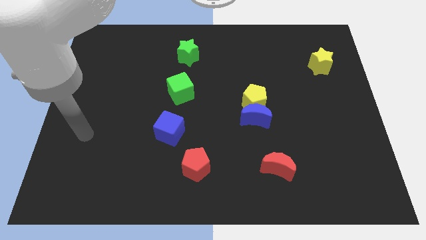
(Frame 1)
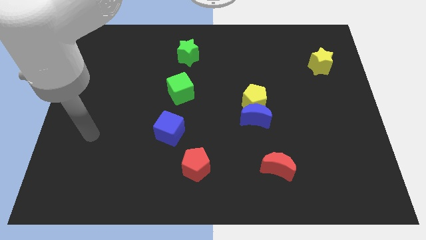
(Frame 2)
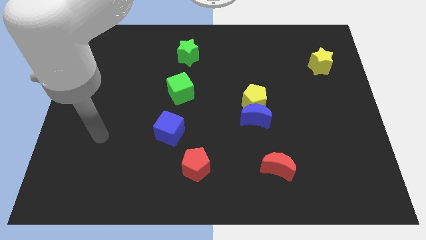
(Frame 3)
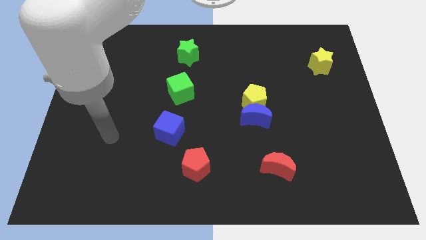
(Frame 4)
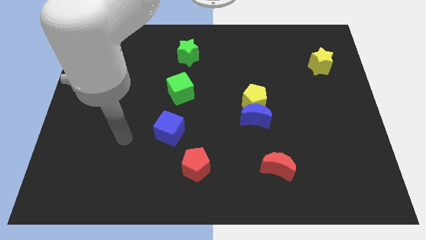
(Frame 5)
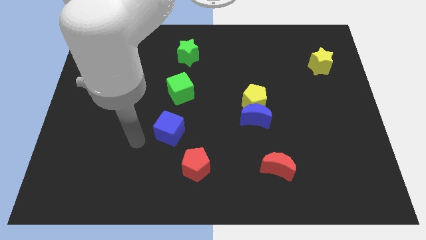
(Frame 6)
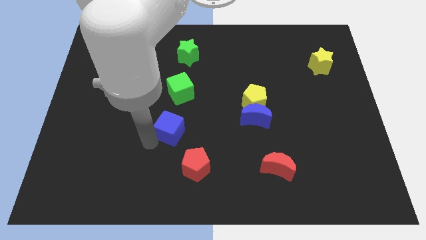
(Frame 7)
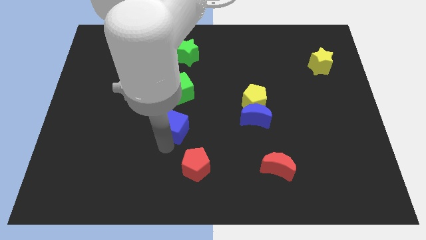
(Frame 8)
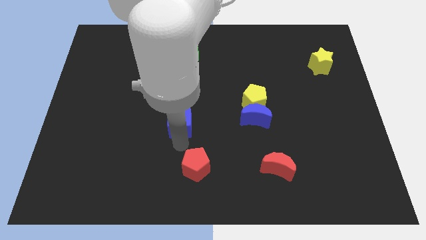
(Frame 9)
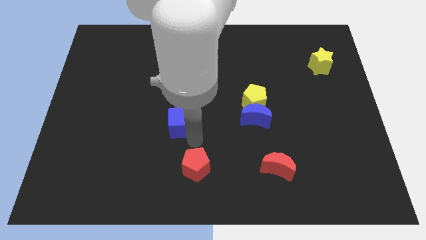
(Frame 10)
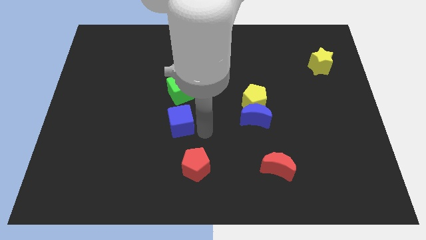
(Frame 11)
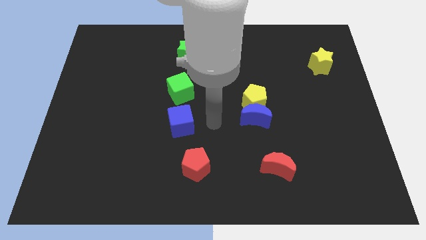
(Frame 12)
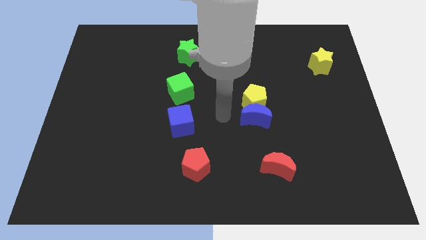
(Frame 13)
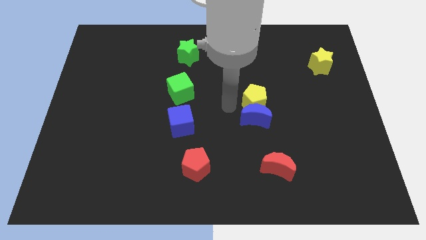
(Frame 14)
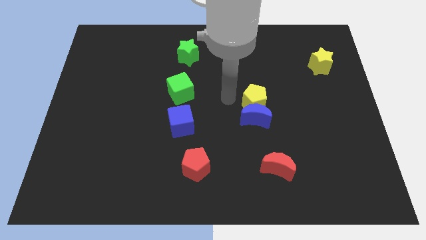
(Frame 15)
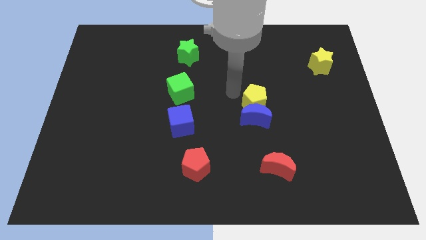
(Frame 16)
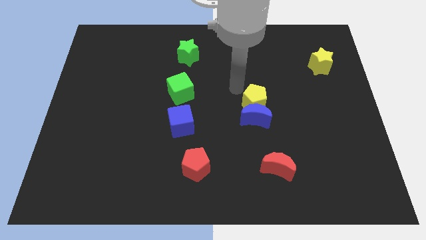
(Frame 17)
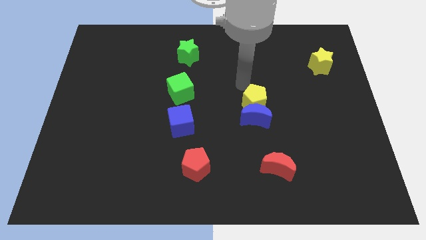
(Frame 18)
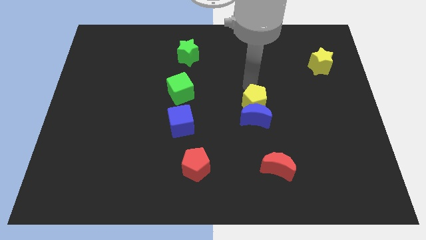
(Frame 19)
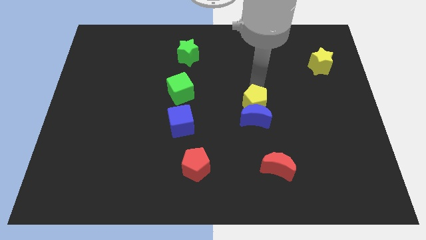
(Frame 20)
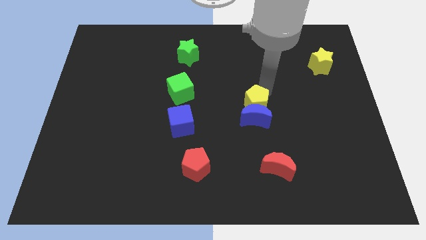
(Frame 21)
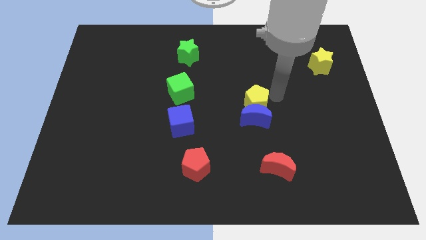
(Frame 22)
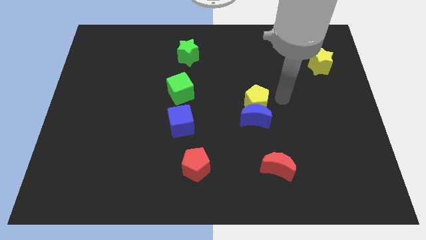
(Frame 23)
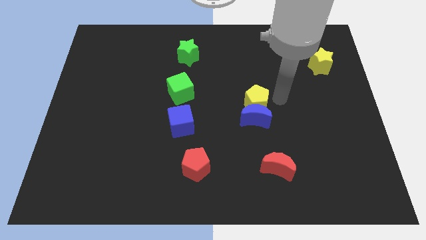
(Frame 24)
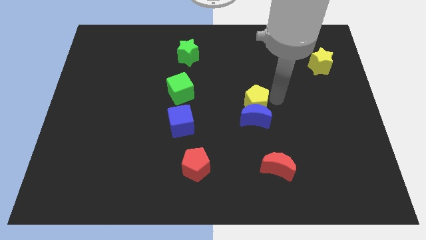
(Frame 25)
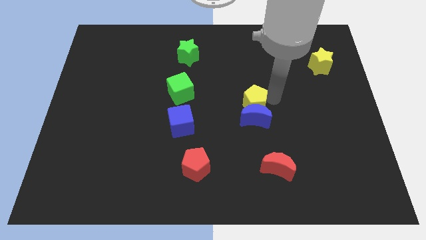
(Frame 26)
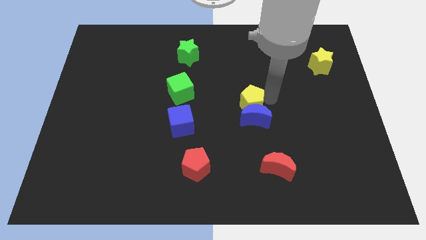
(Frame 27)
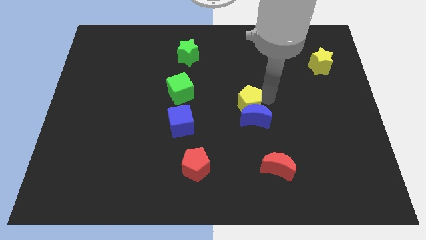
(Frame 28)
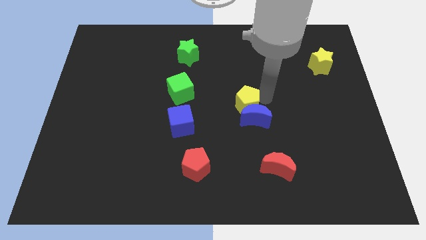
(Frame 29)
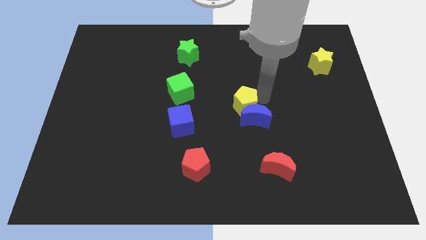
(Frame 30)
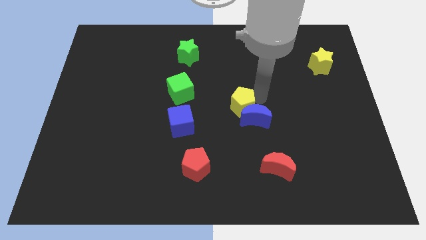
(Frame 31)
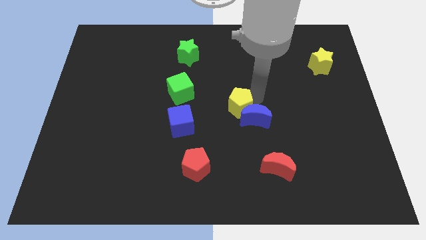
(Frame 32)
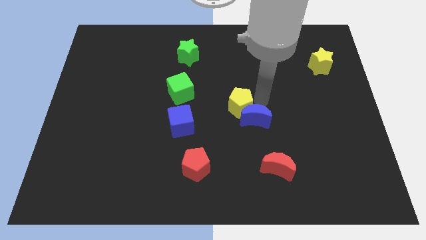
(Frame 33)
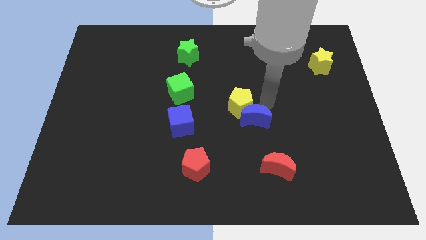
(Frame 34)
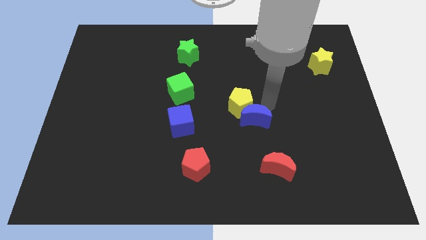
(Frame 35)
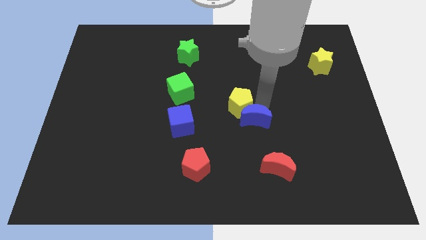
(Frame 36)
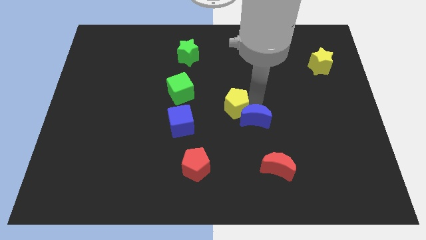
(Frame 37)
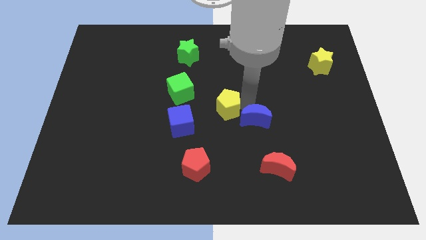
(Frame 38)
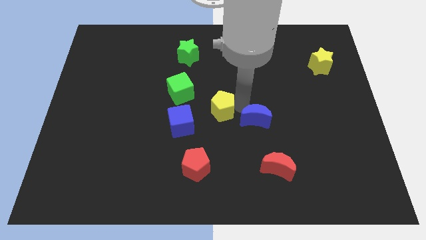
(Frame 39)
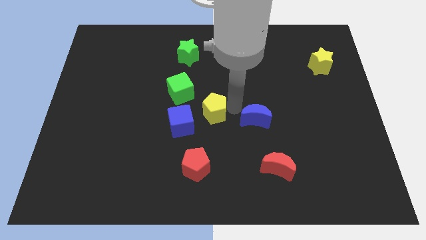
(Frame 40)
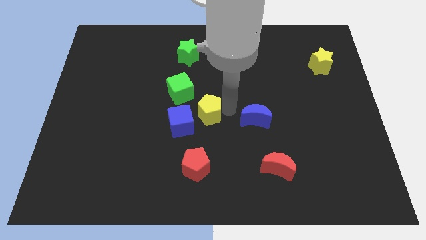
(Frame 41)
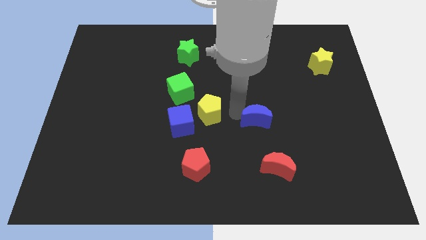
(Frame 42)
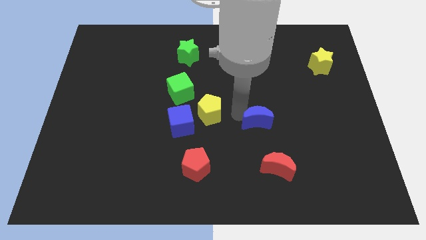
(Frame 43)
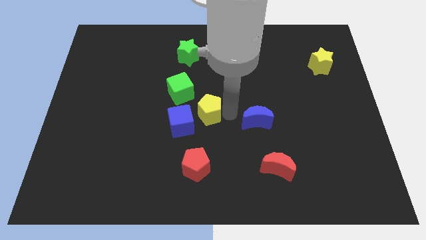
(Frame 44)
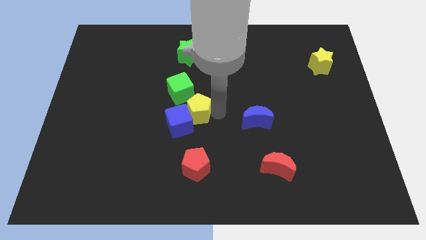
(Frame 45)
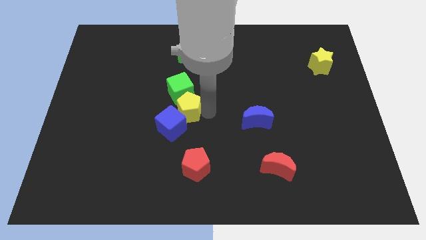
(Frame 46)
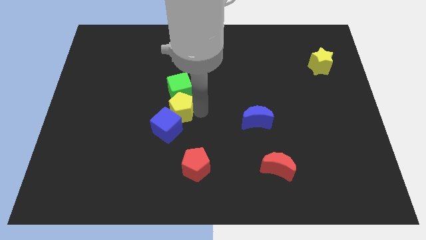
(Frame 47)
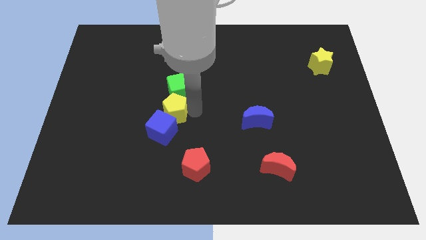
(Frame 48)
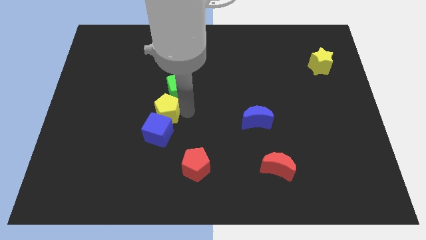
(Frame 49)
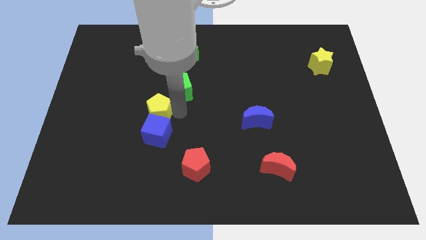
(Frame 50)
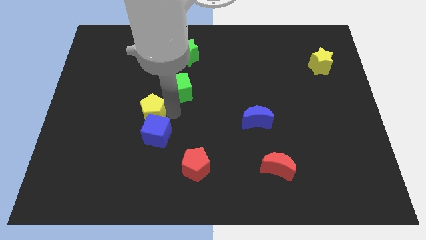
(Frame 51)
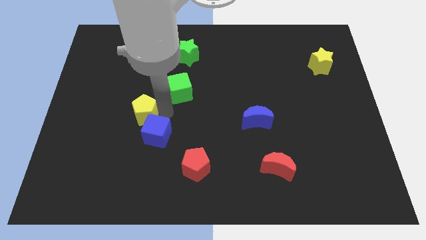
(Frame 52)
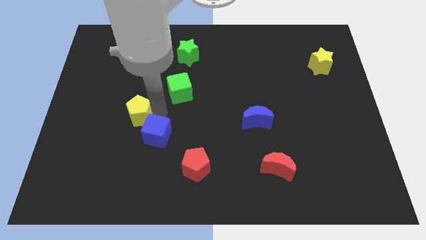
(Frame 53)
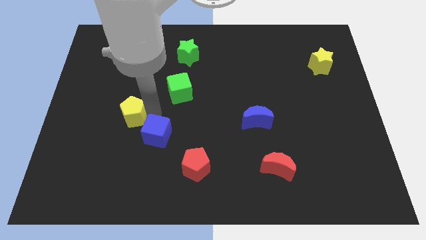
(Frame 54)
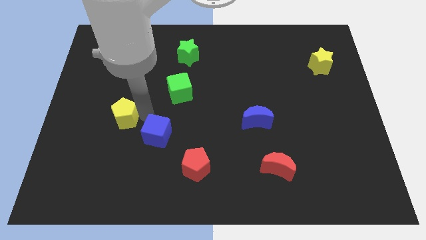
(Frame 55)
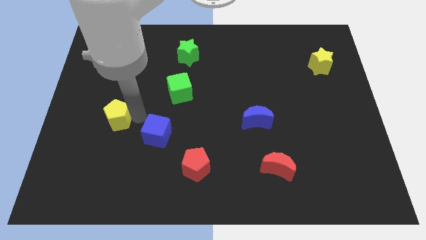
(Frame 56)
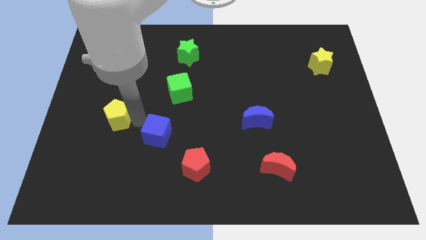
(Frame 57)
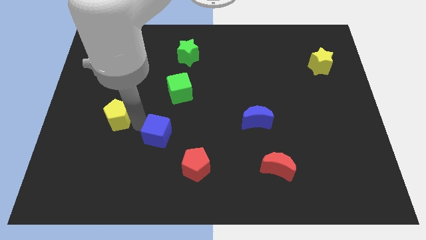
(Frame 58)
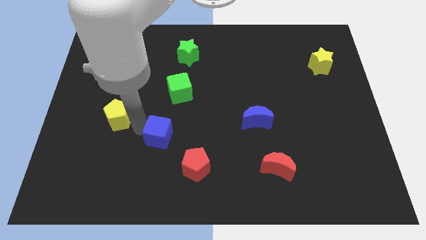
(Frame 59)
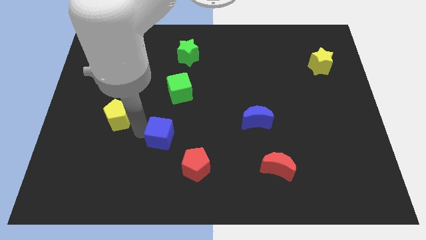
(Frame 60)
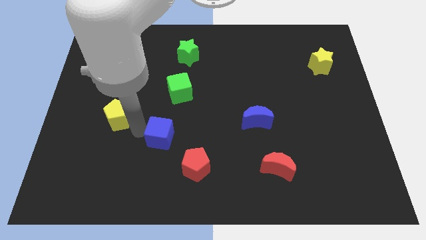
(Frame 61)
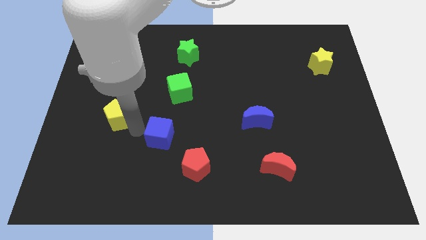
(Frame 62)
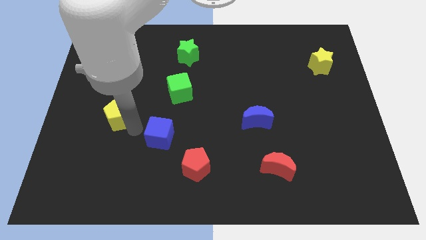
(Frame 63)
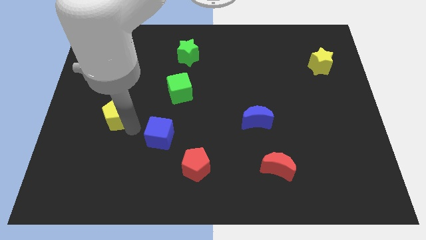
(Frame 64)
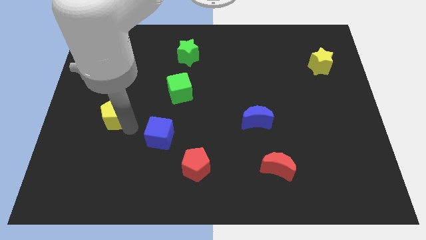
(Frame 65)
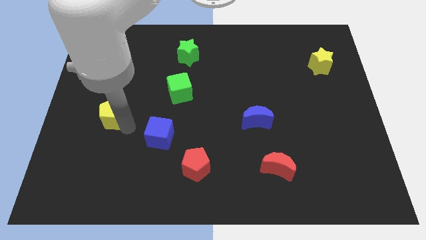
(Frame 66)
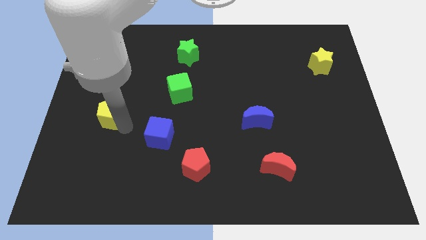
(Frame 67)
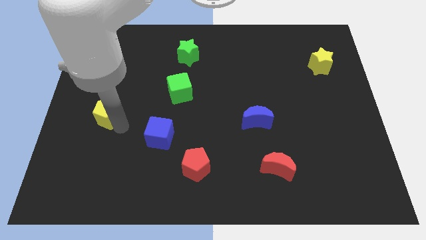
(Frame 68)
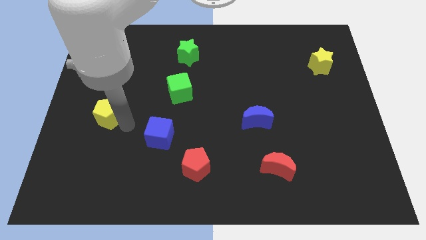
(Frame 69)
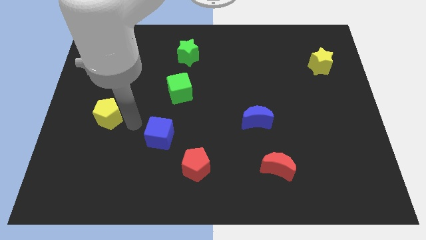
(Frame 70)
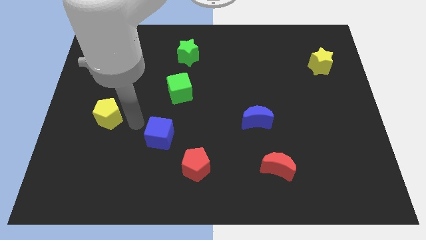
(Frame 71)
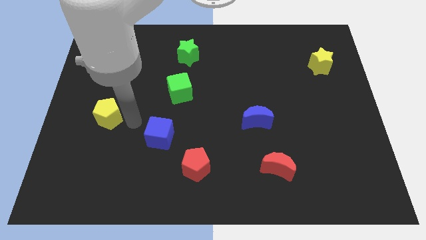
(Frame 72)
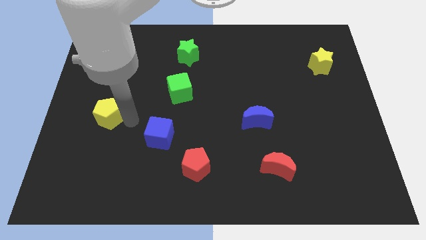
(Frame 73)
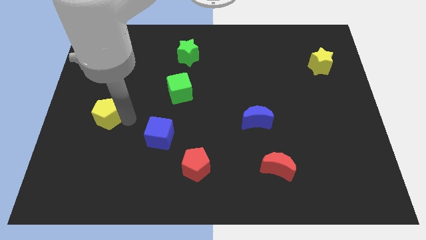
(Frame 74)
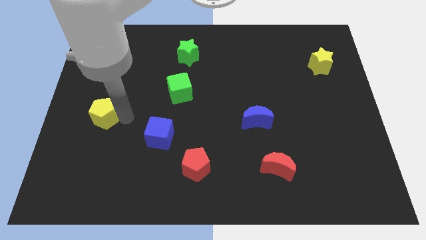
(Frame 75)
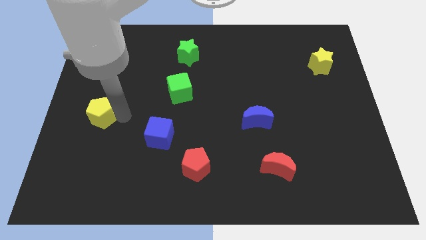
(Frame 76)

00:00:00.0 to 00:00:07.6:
put the yellow pentagon to the left side of the board
